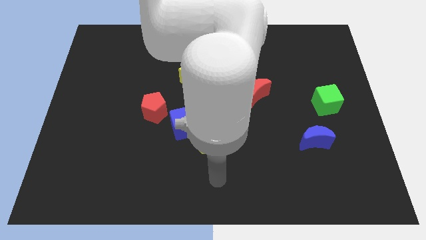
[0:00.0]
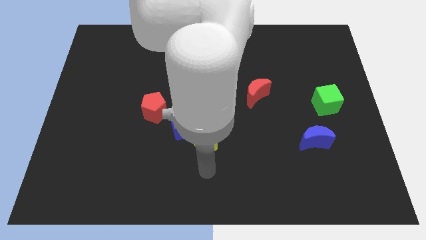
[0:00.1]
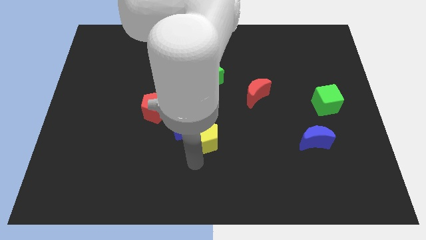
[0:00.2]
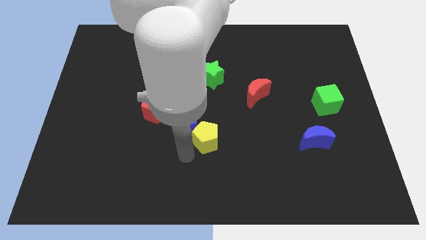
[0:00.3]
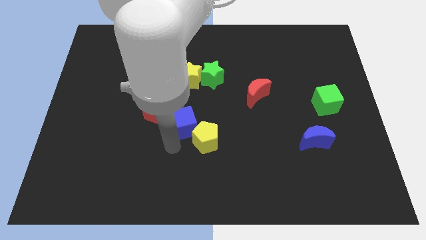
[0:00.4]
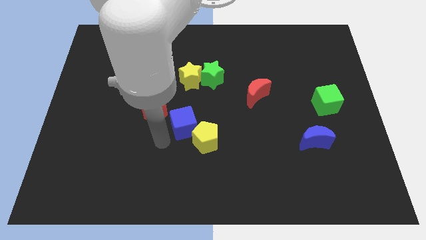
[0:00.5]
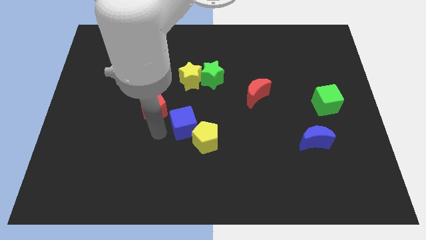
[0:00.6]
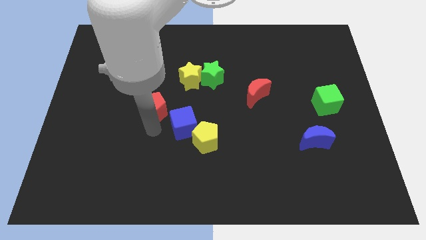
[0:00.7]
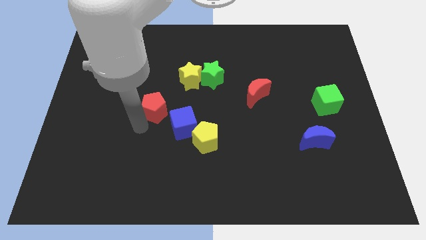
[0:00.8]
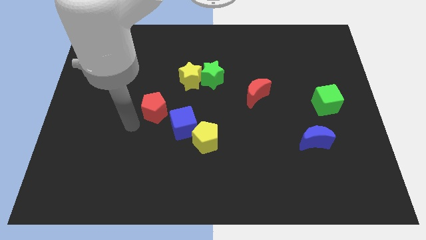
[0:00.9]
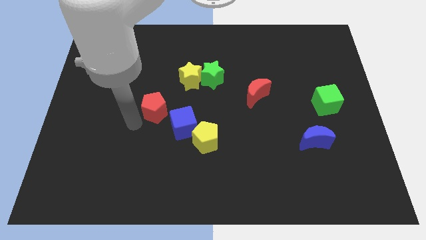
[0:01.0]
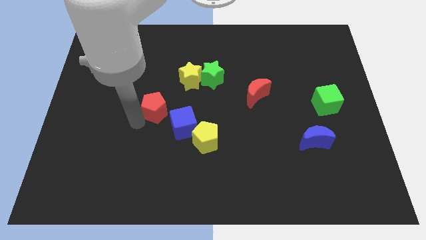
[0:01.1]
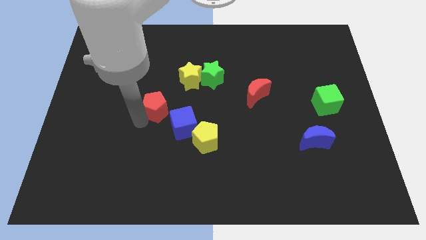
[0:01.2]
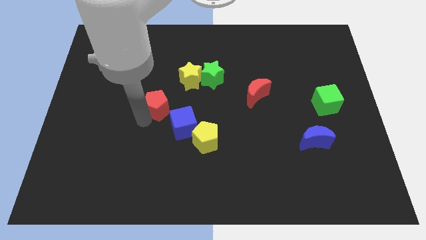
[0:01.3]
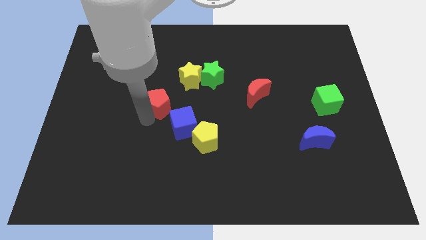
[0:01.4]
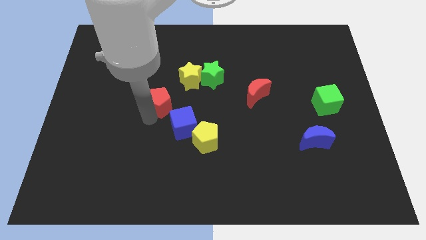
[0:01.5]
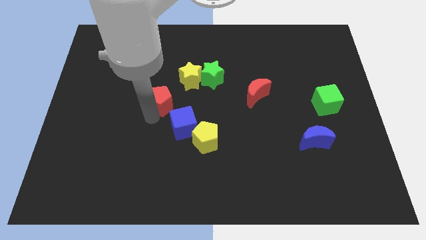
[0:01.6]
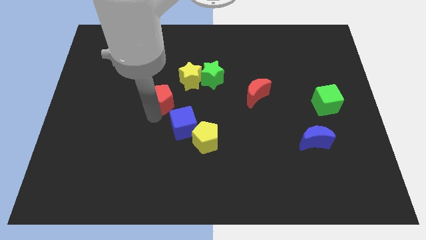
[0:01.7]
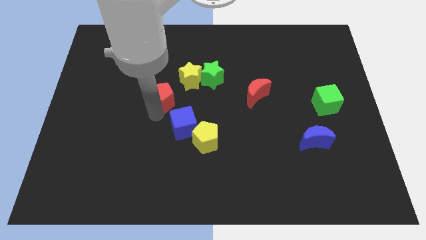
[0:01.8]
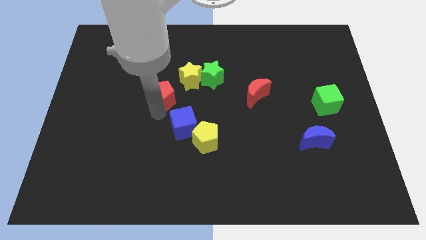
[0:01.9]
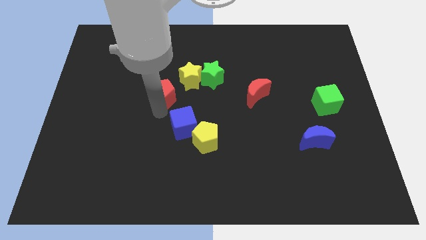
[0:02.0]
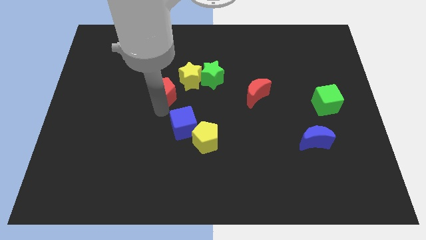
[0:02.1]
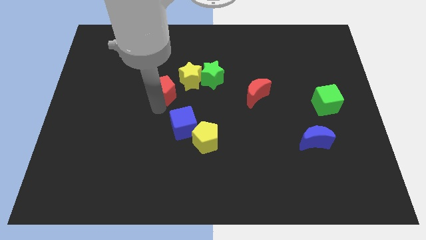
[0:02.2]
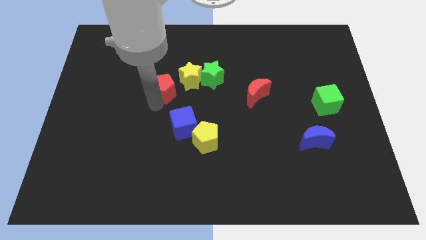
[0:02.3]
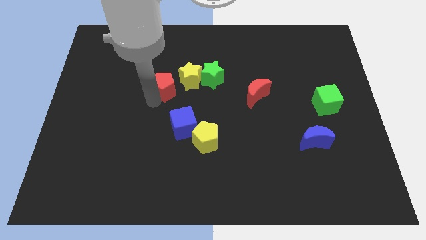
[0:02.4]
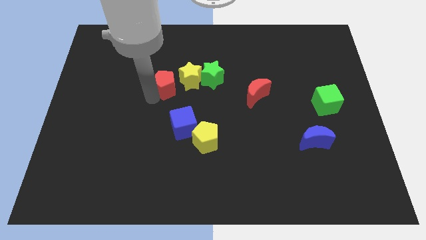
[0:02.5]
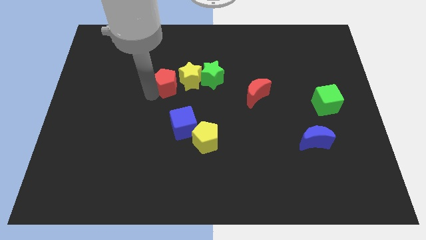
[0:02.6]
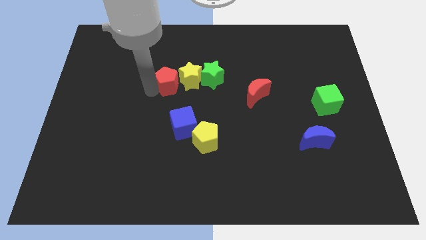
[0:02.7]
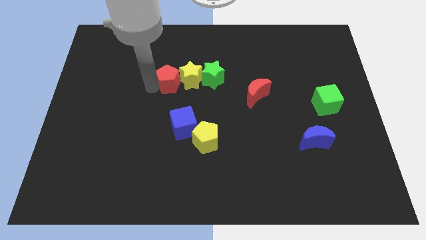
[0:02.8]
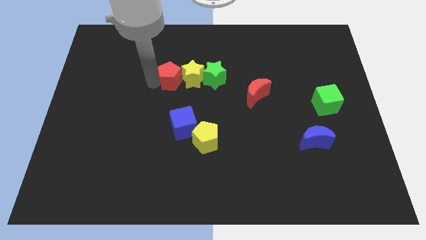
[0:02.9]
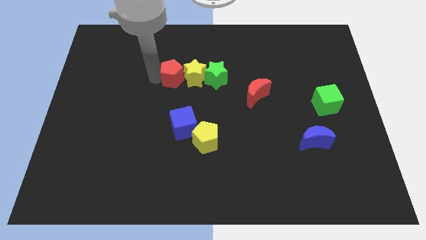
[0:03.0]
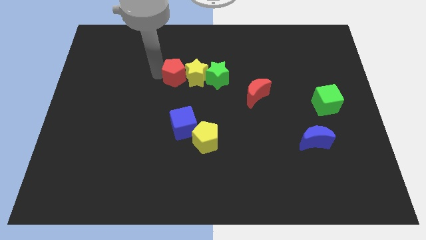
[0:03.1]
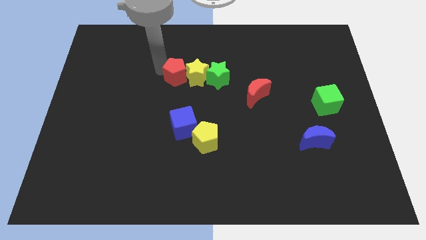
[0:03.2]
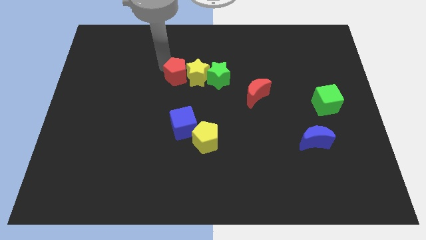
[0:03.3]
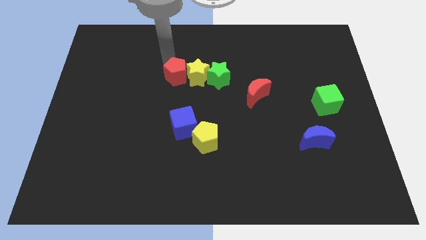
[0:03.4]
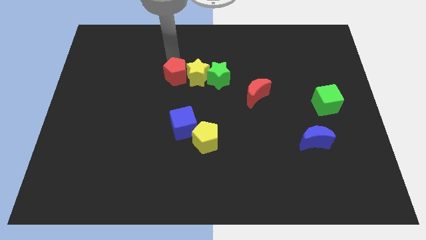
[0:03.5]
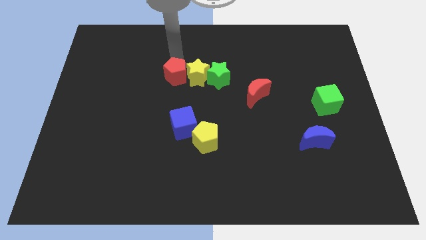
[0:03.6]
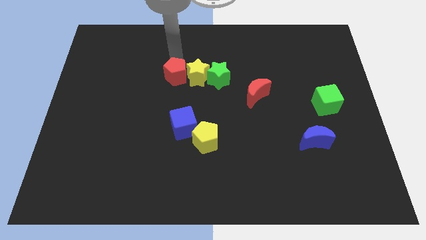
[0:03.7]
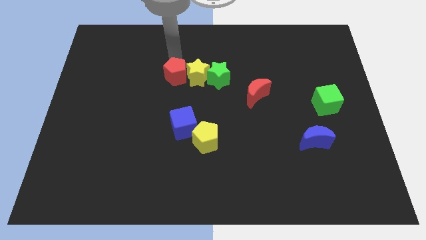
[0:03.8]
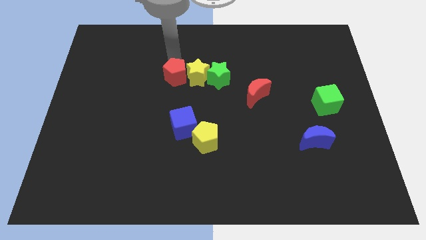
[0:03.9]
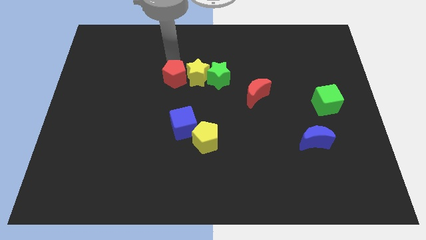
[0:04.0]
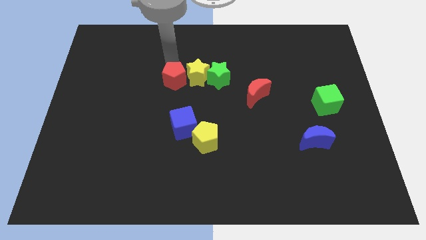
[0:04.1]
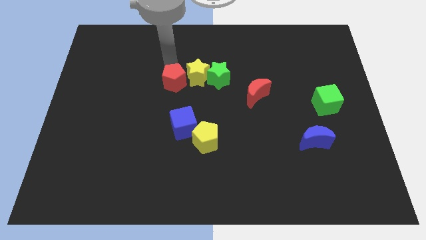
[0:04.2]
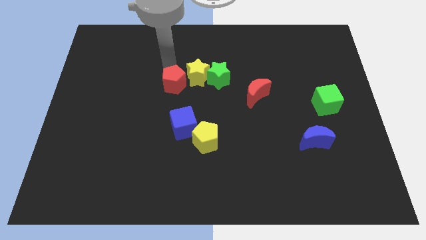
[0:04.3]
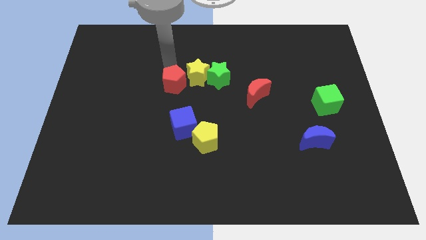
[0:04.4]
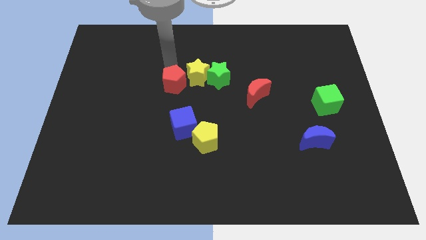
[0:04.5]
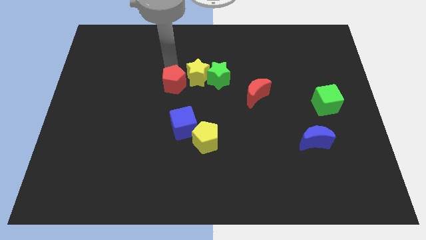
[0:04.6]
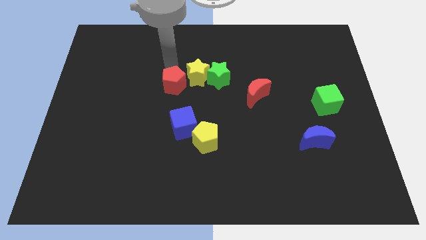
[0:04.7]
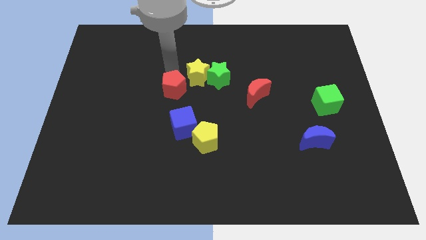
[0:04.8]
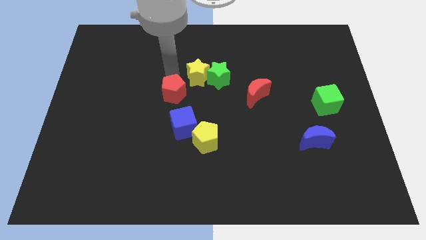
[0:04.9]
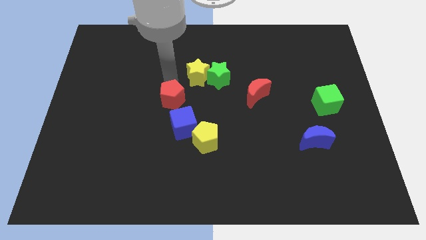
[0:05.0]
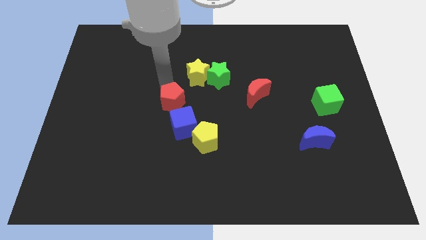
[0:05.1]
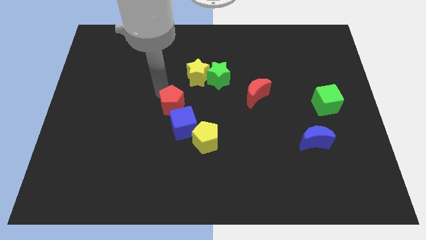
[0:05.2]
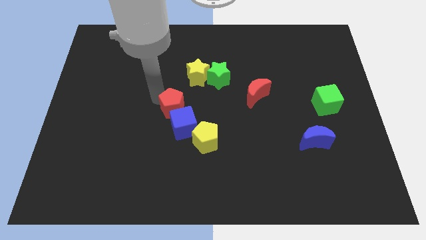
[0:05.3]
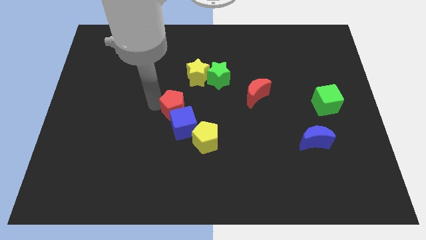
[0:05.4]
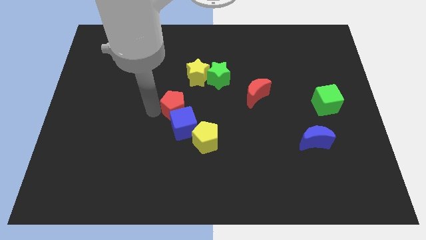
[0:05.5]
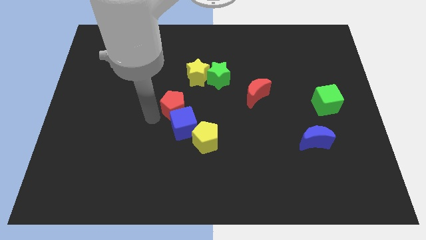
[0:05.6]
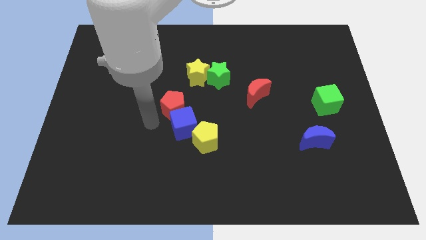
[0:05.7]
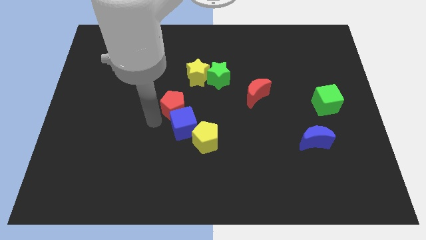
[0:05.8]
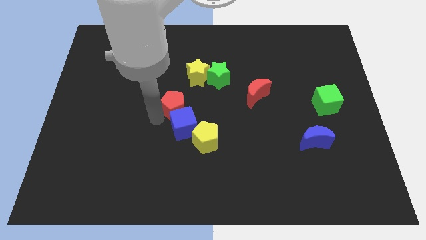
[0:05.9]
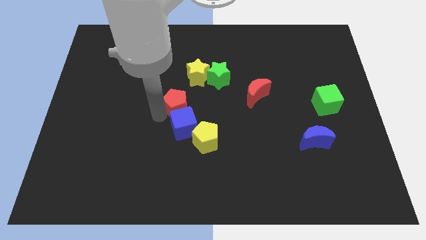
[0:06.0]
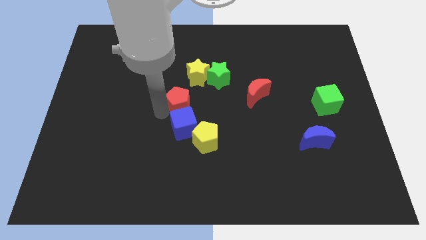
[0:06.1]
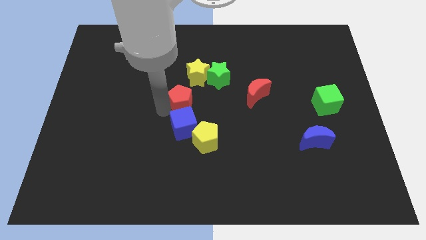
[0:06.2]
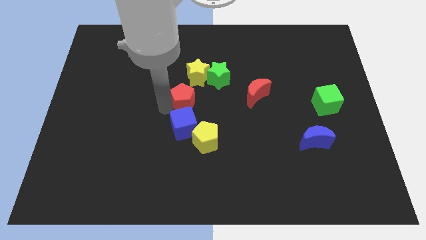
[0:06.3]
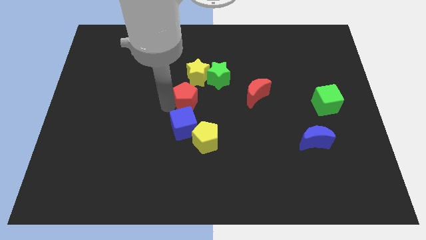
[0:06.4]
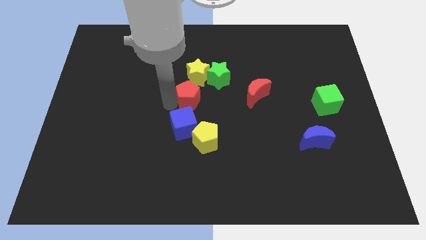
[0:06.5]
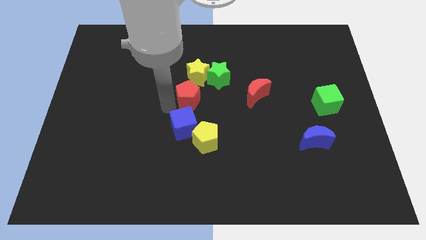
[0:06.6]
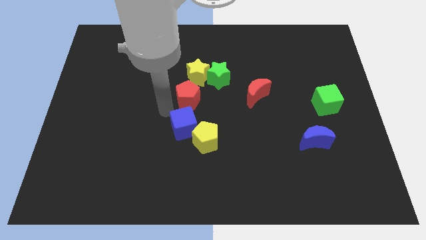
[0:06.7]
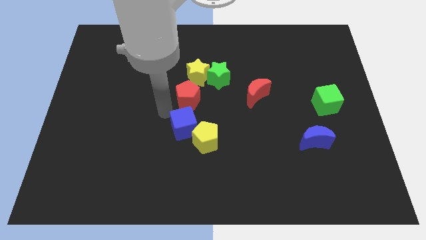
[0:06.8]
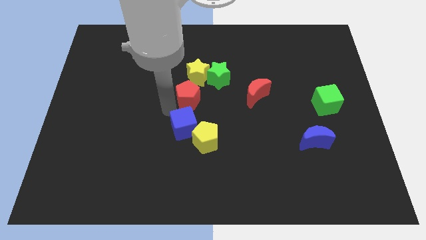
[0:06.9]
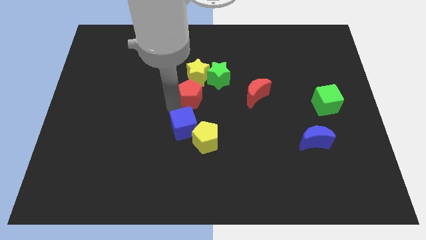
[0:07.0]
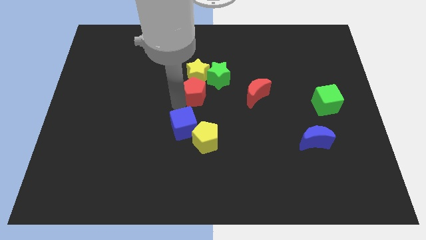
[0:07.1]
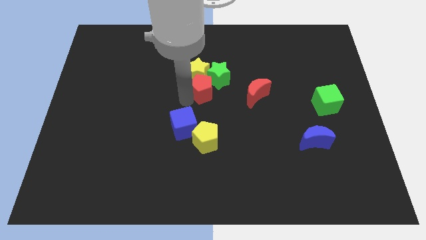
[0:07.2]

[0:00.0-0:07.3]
slide the red pentagon close to the green star
